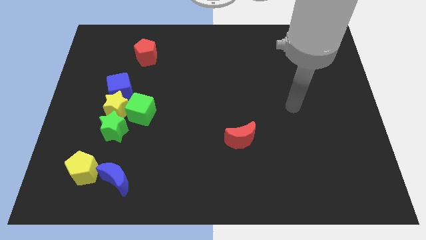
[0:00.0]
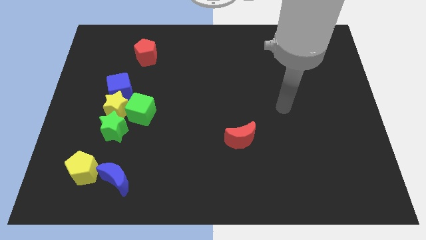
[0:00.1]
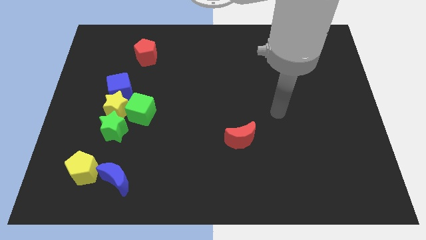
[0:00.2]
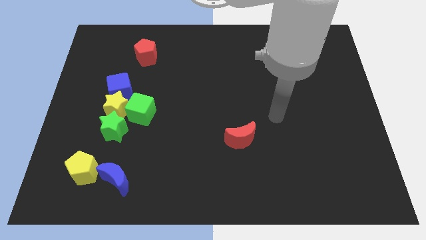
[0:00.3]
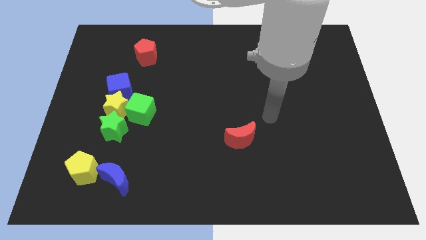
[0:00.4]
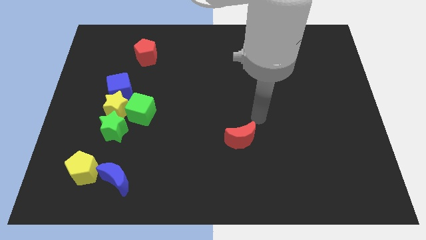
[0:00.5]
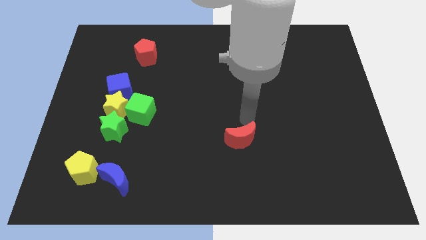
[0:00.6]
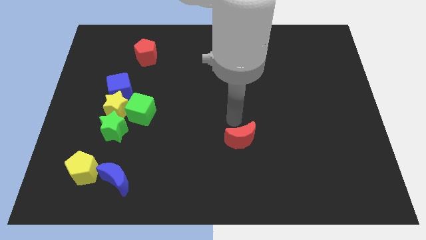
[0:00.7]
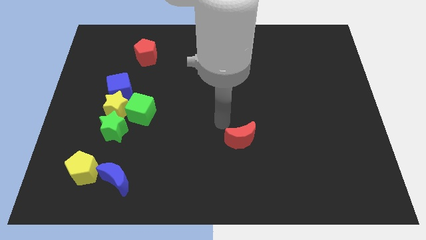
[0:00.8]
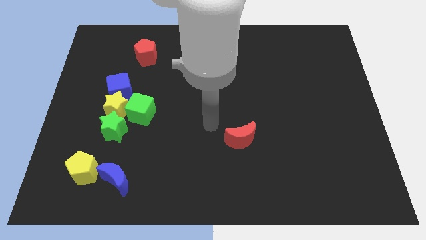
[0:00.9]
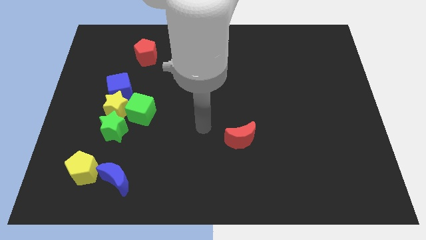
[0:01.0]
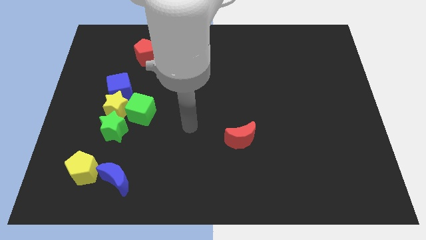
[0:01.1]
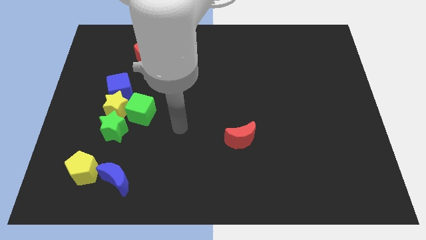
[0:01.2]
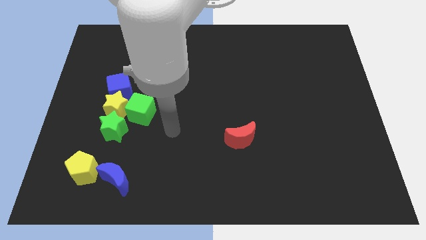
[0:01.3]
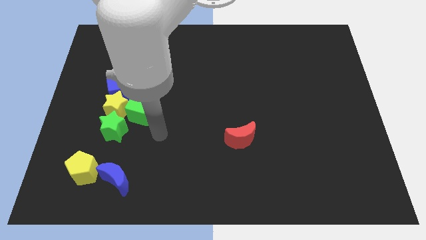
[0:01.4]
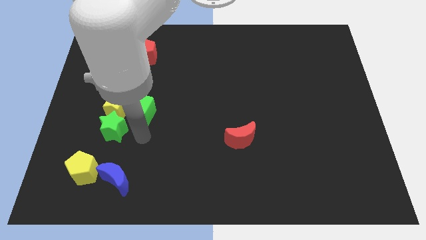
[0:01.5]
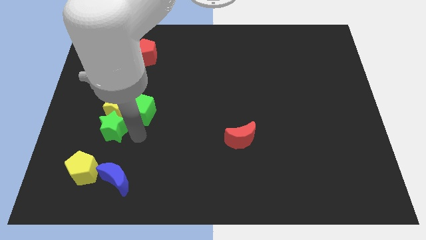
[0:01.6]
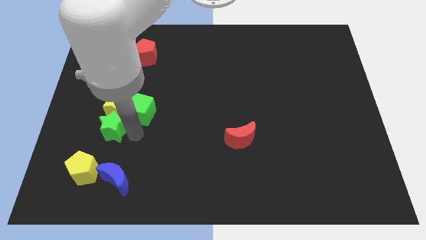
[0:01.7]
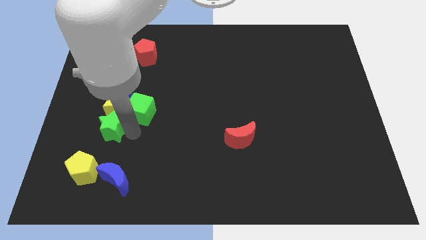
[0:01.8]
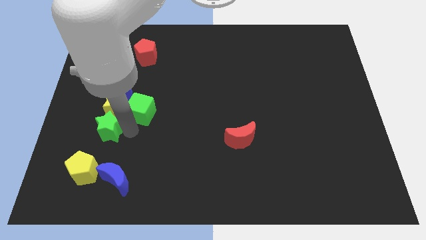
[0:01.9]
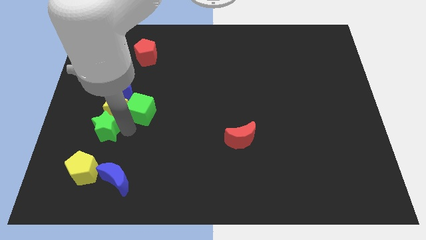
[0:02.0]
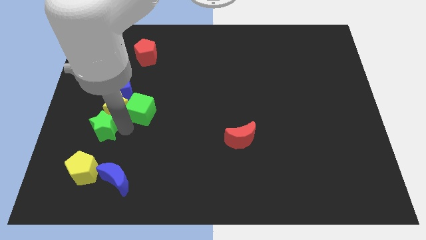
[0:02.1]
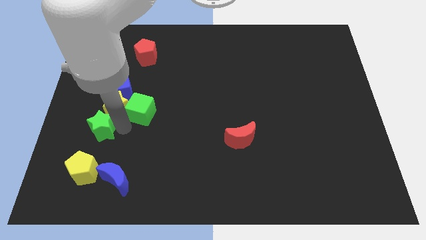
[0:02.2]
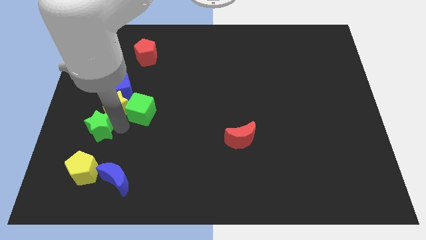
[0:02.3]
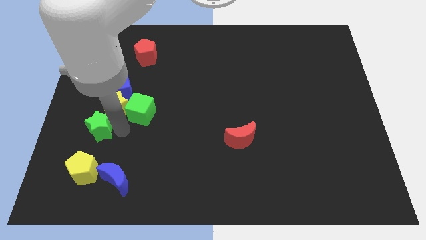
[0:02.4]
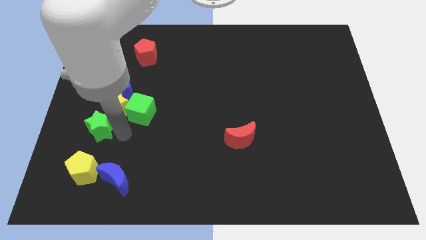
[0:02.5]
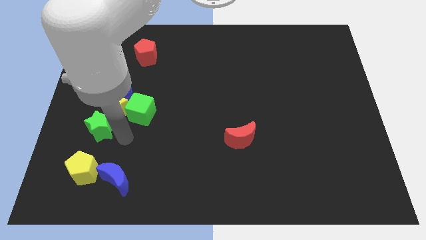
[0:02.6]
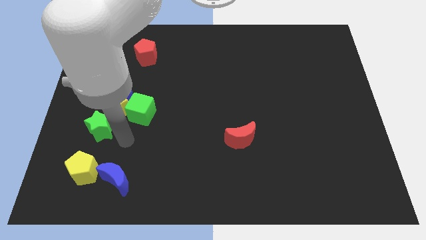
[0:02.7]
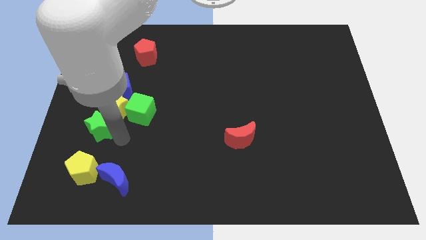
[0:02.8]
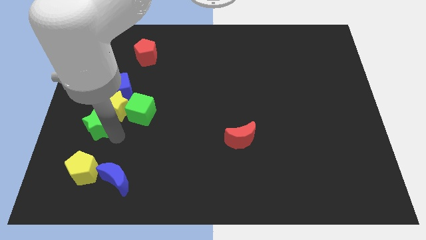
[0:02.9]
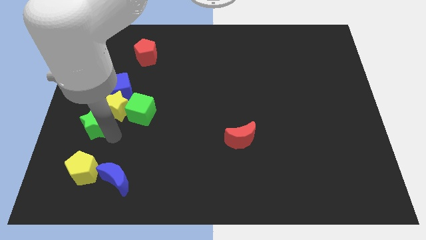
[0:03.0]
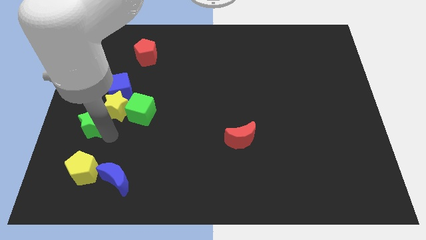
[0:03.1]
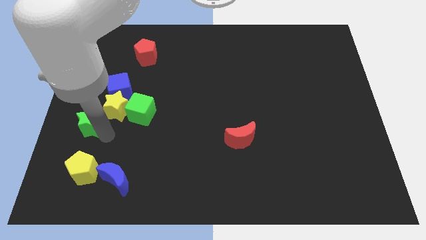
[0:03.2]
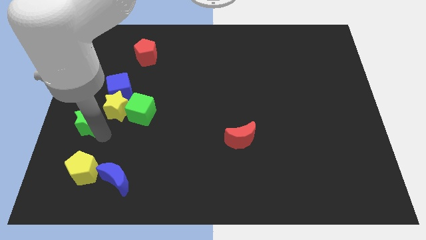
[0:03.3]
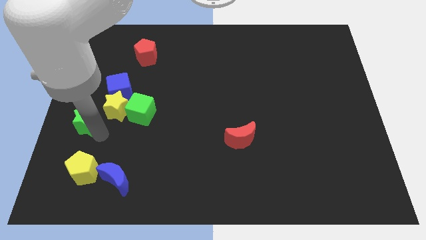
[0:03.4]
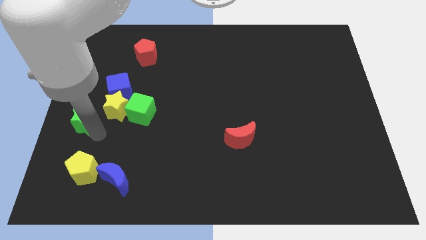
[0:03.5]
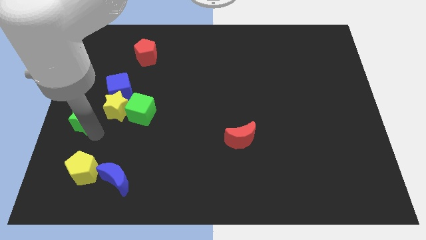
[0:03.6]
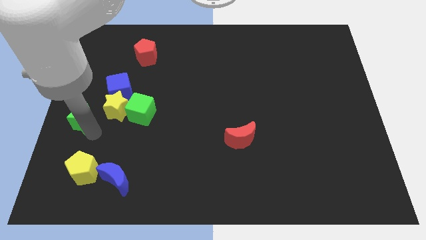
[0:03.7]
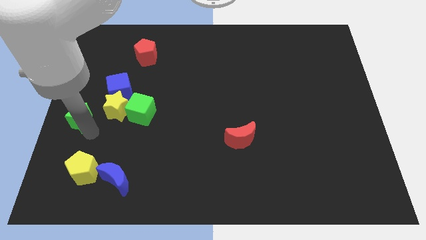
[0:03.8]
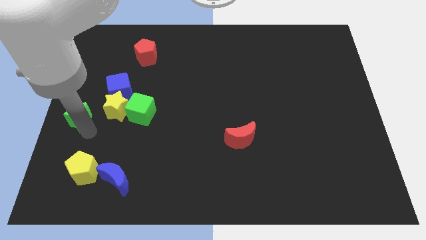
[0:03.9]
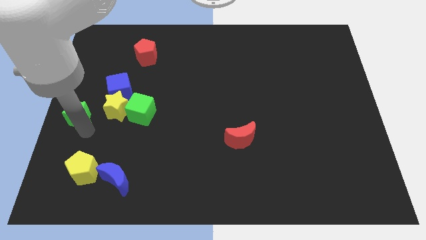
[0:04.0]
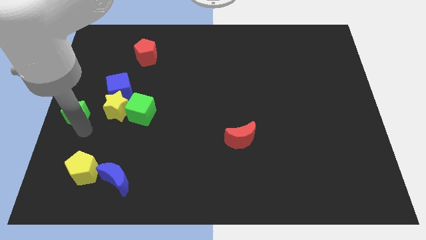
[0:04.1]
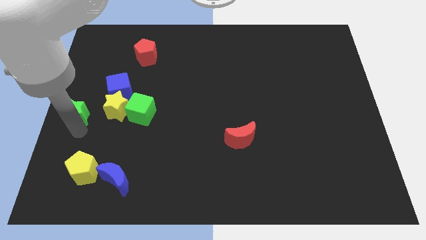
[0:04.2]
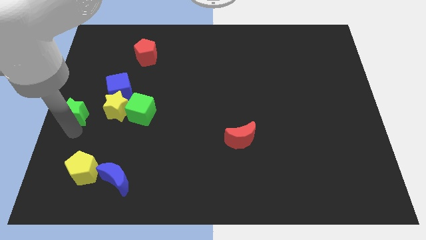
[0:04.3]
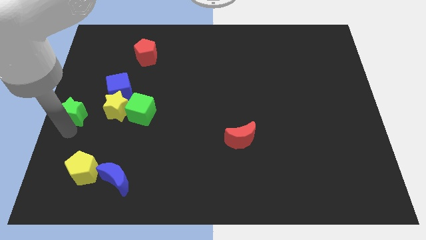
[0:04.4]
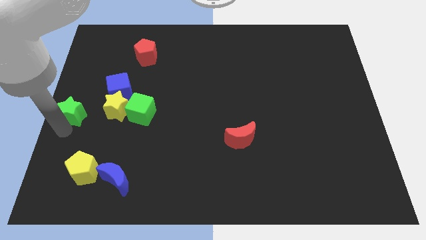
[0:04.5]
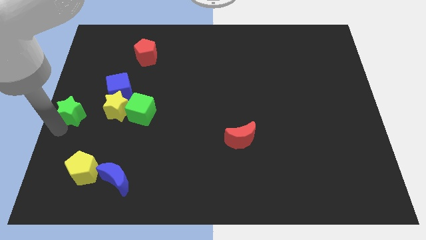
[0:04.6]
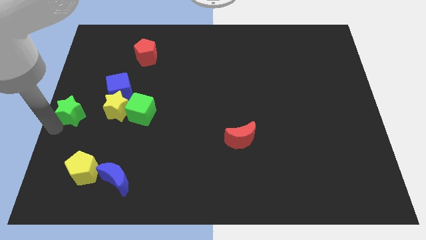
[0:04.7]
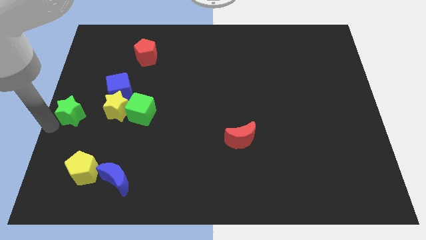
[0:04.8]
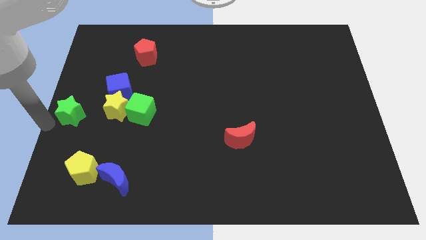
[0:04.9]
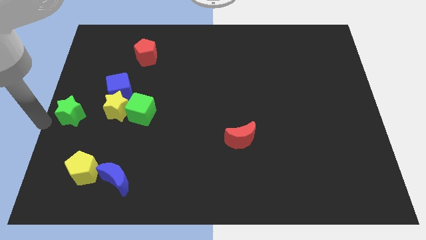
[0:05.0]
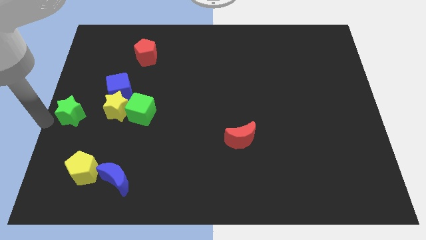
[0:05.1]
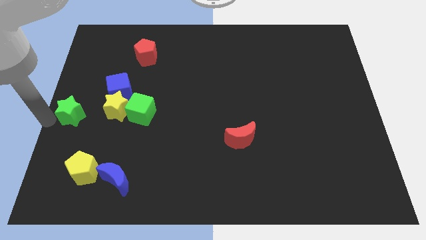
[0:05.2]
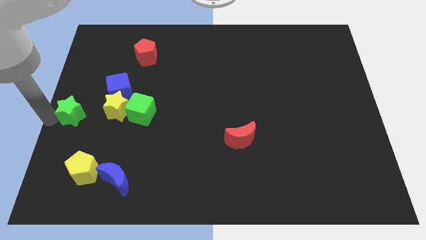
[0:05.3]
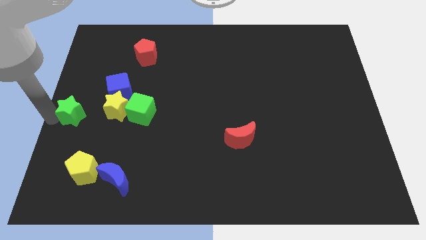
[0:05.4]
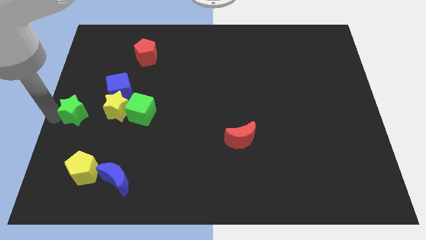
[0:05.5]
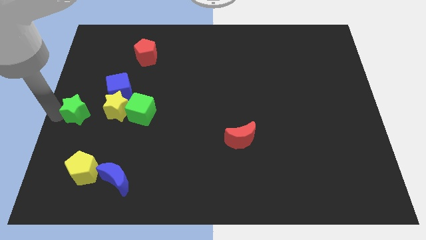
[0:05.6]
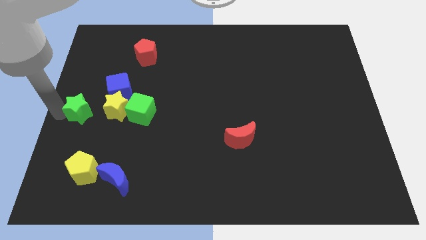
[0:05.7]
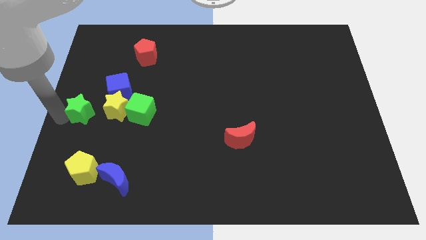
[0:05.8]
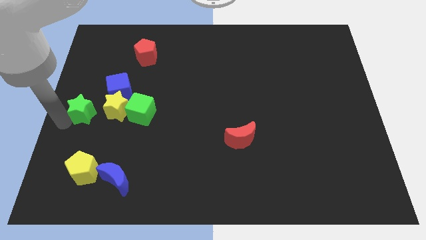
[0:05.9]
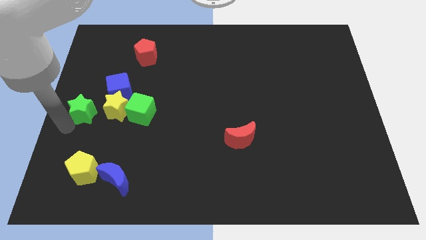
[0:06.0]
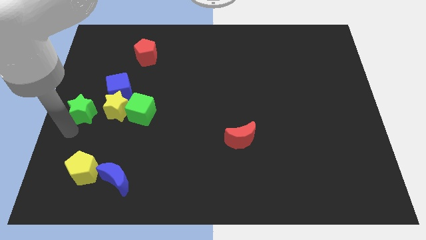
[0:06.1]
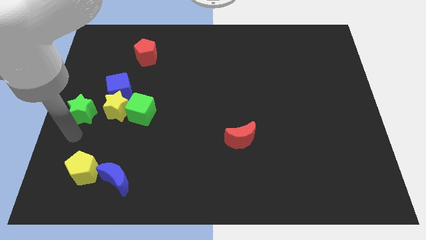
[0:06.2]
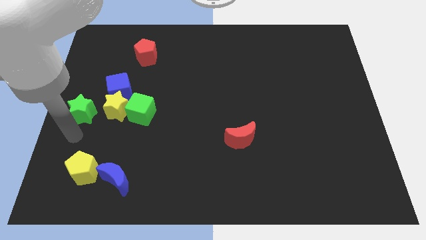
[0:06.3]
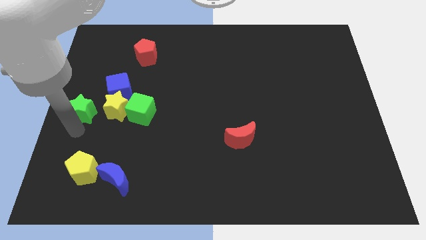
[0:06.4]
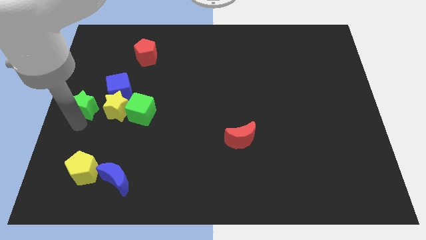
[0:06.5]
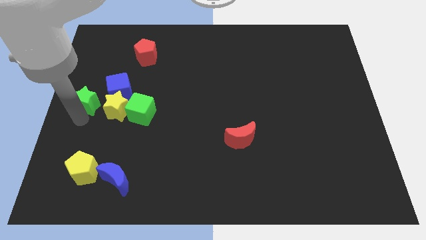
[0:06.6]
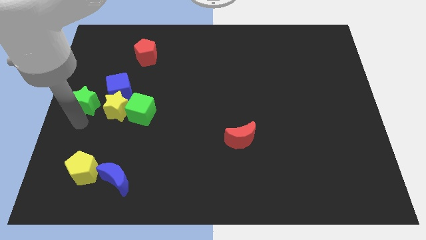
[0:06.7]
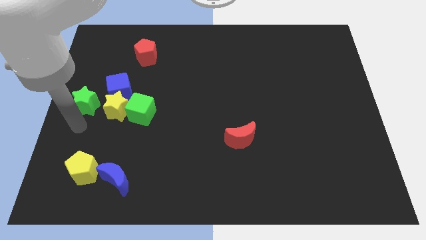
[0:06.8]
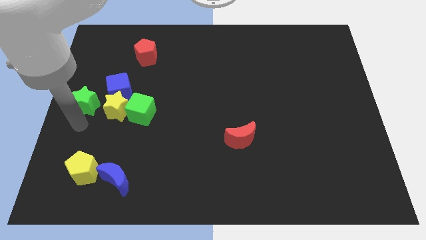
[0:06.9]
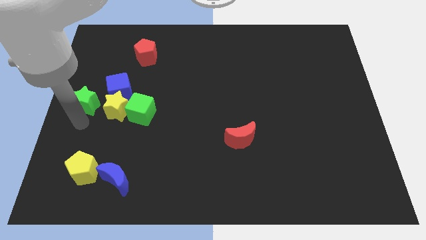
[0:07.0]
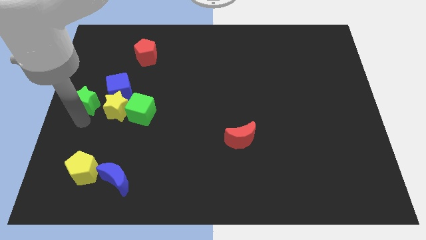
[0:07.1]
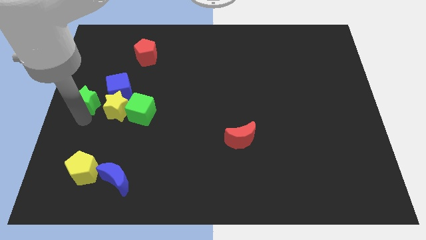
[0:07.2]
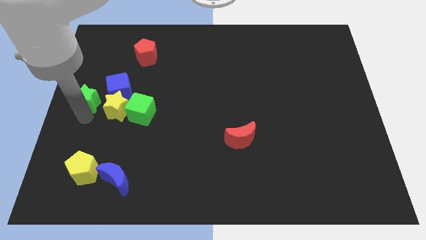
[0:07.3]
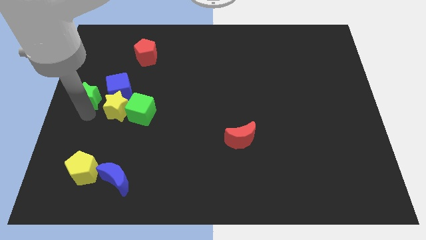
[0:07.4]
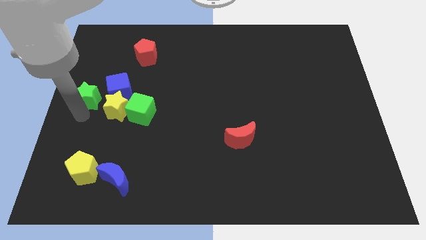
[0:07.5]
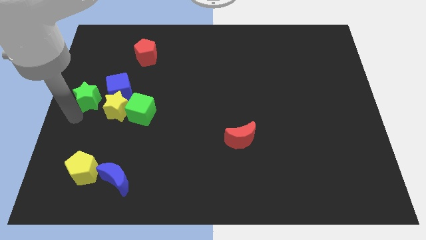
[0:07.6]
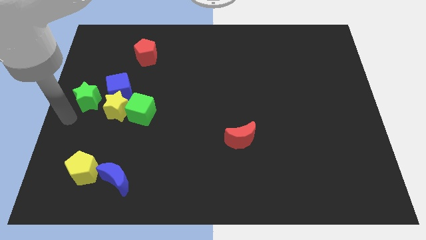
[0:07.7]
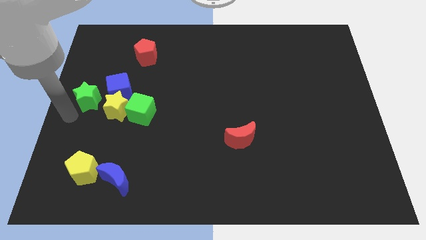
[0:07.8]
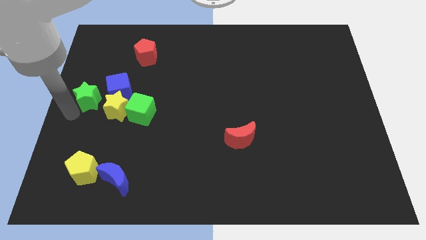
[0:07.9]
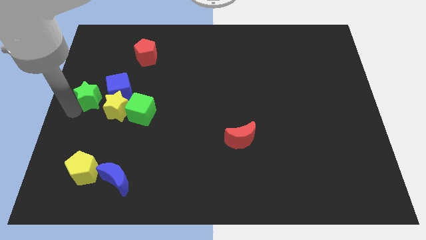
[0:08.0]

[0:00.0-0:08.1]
slightly slide the green star upwards

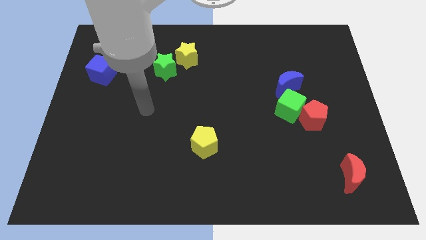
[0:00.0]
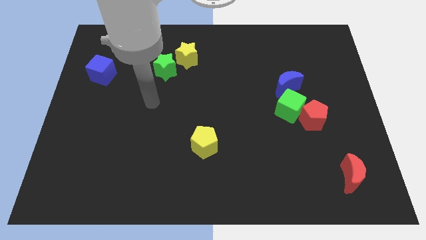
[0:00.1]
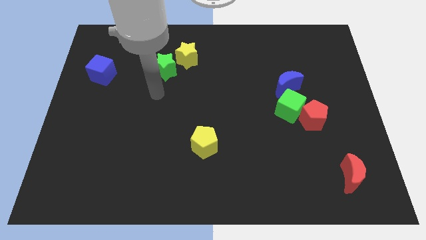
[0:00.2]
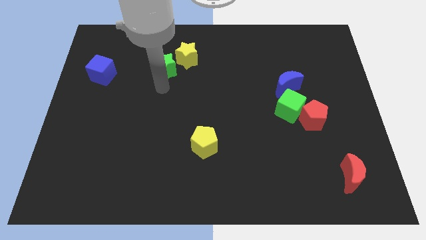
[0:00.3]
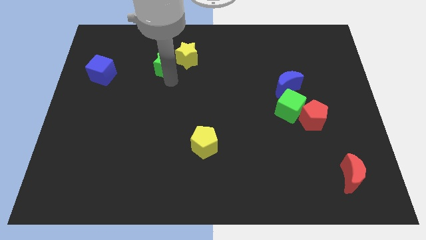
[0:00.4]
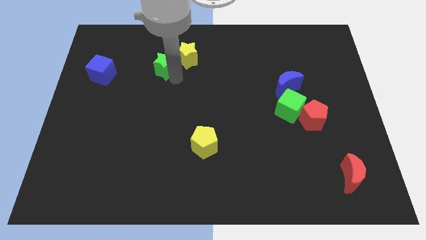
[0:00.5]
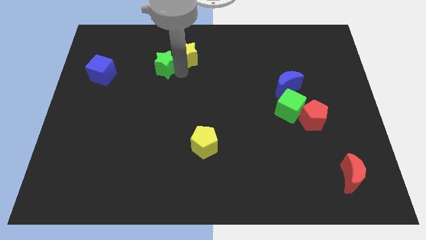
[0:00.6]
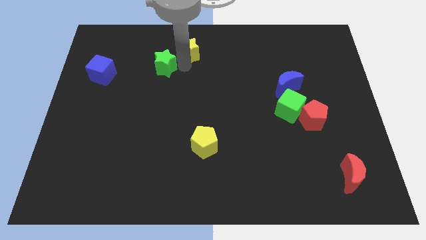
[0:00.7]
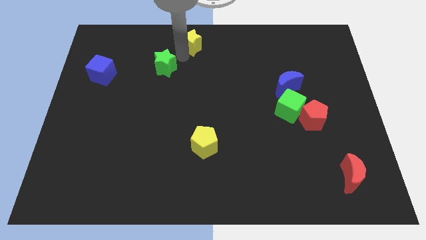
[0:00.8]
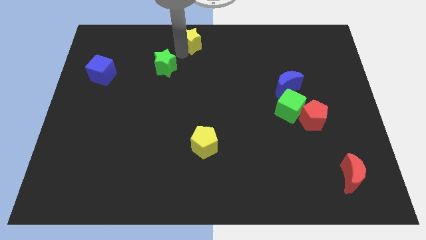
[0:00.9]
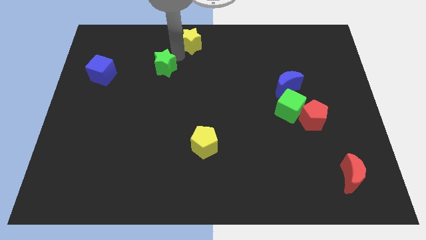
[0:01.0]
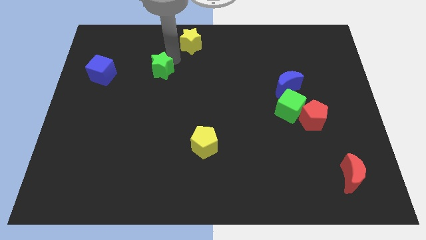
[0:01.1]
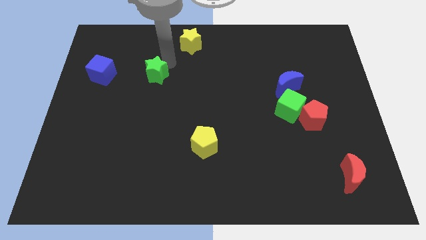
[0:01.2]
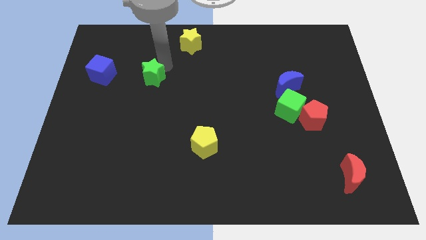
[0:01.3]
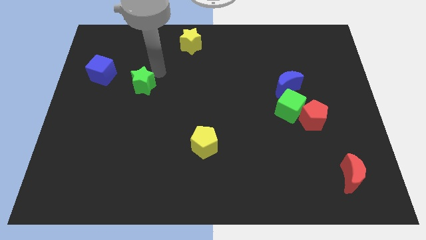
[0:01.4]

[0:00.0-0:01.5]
push the green star a little bit diagonally downwards and left
